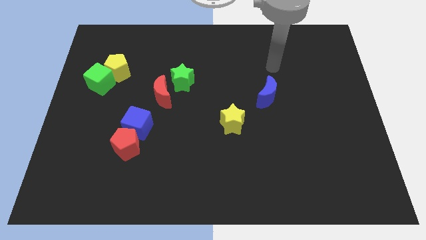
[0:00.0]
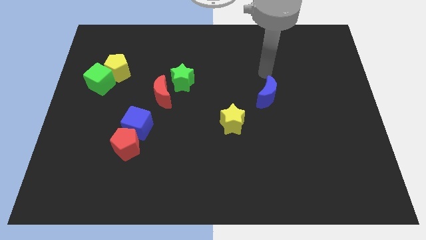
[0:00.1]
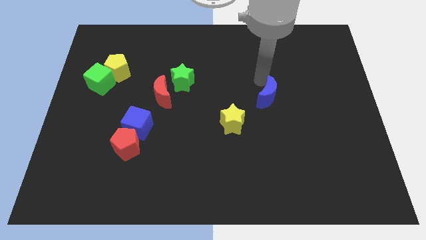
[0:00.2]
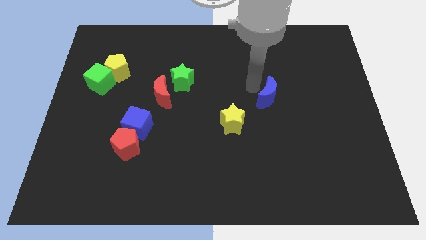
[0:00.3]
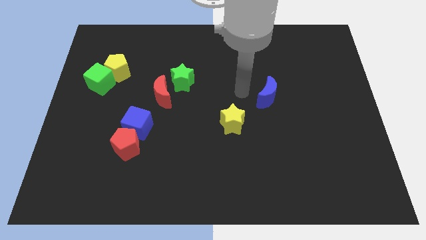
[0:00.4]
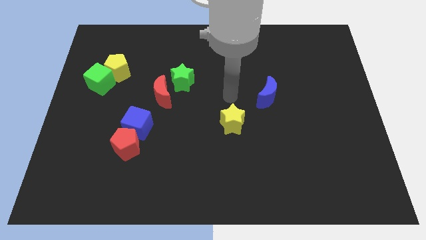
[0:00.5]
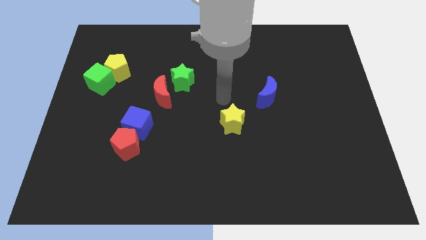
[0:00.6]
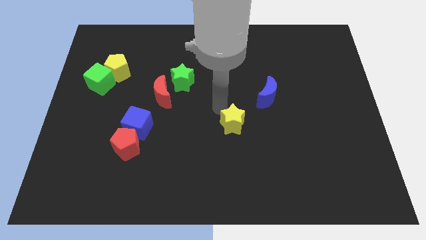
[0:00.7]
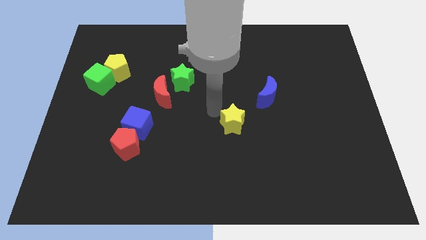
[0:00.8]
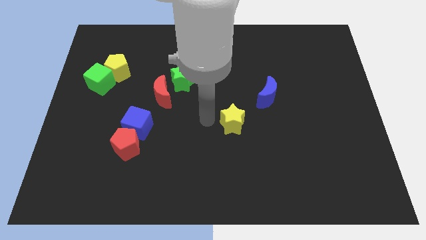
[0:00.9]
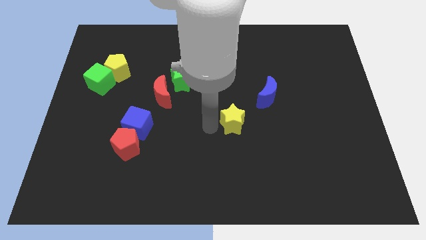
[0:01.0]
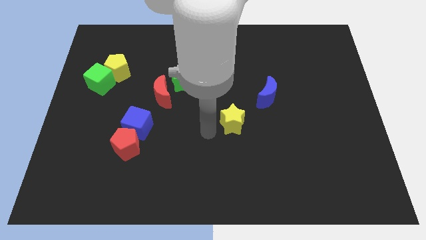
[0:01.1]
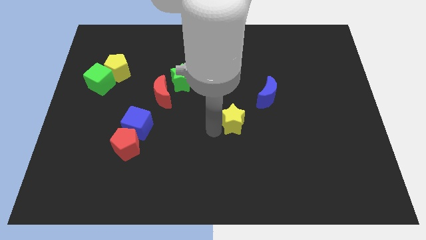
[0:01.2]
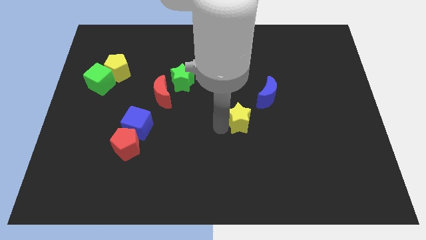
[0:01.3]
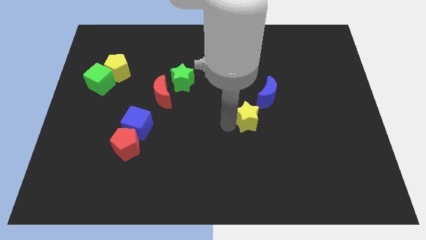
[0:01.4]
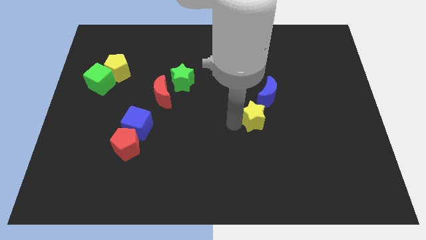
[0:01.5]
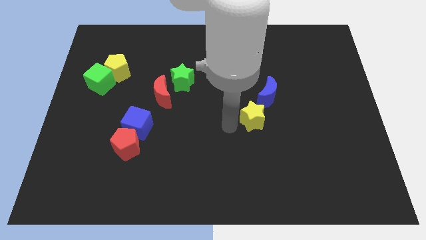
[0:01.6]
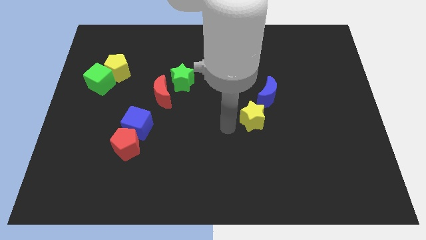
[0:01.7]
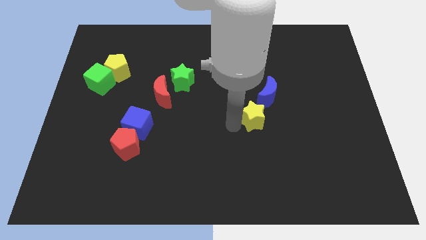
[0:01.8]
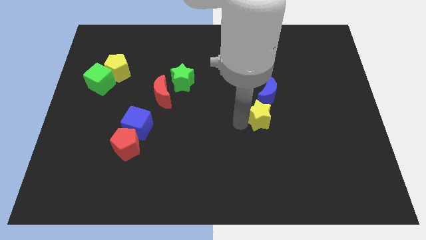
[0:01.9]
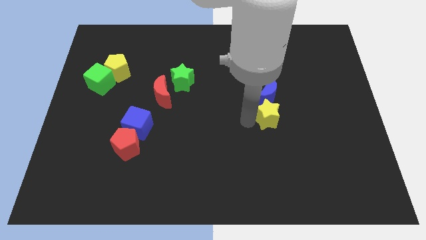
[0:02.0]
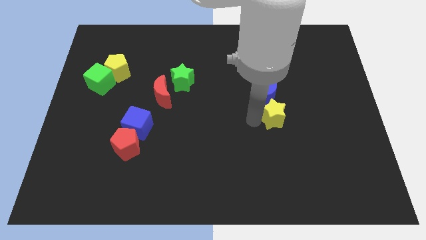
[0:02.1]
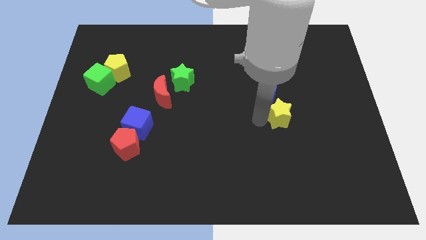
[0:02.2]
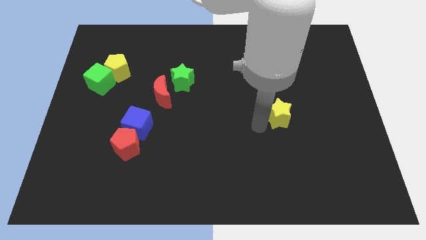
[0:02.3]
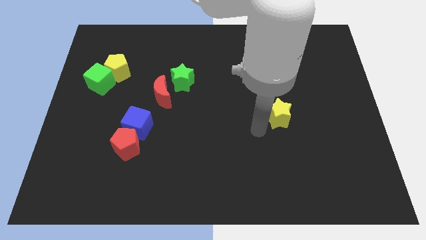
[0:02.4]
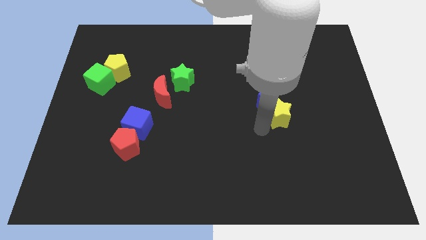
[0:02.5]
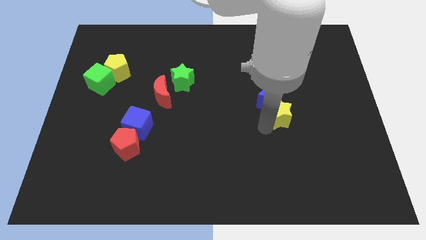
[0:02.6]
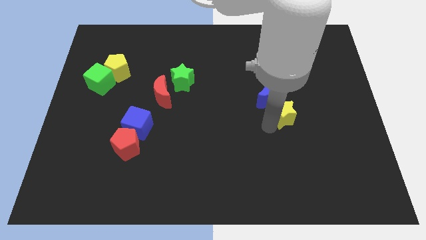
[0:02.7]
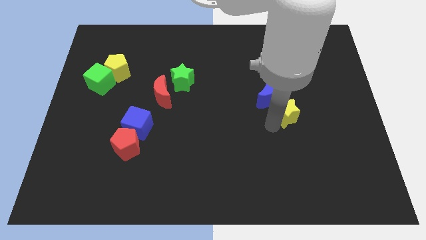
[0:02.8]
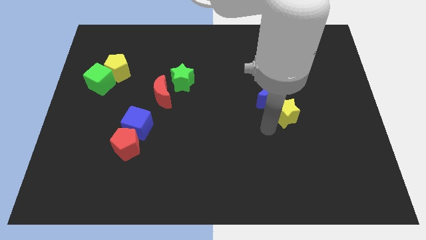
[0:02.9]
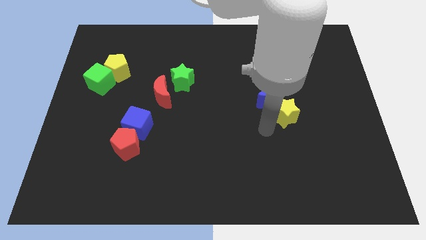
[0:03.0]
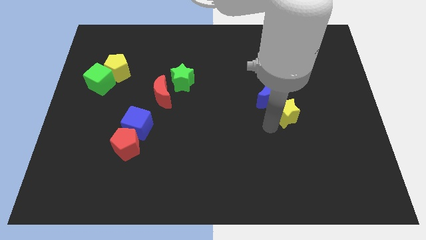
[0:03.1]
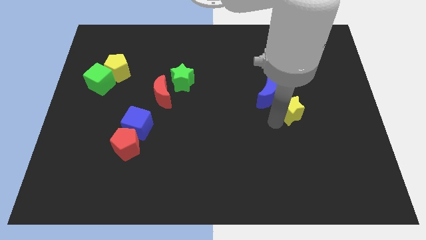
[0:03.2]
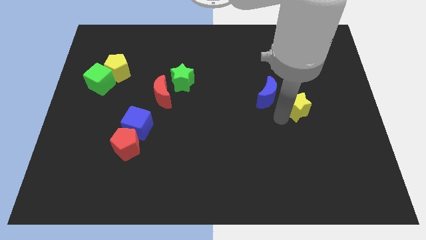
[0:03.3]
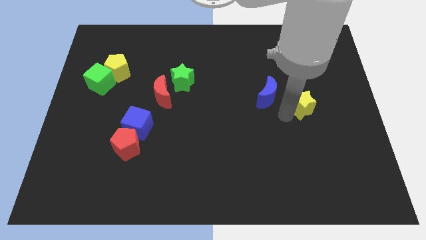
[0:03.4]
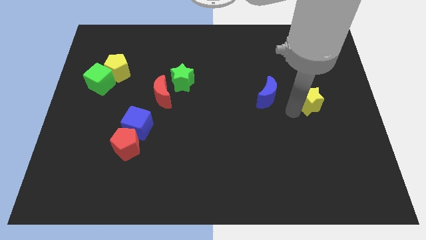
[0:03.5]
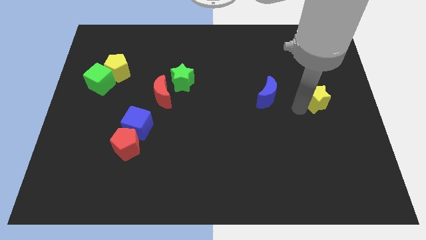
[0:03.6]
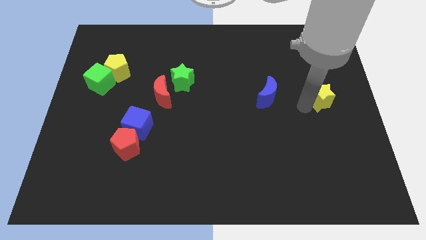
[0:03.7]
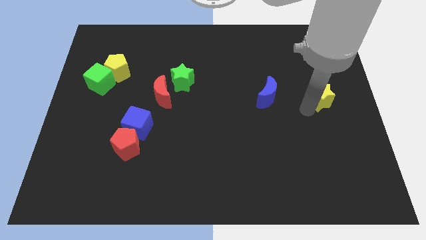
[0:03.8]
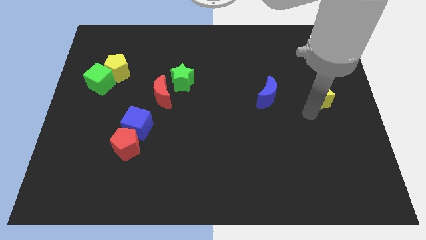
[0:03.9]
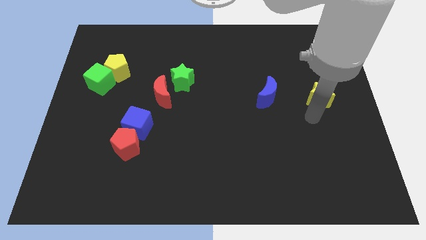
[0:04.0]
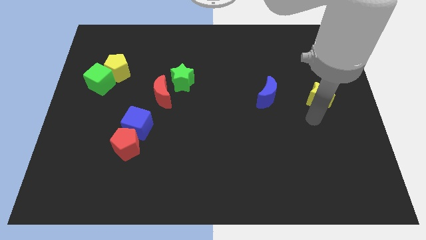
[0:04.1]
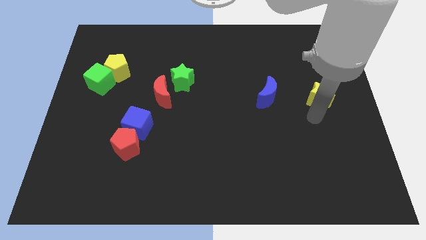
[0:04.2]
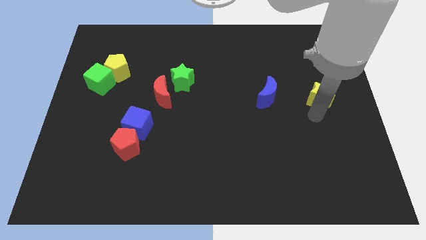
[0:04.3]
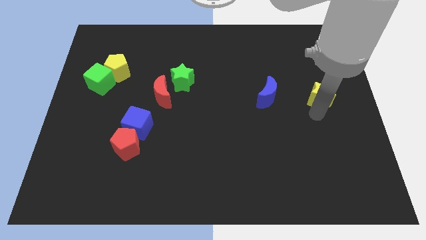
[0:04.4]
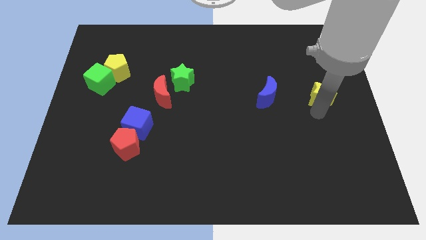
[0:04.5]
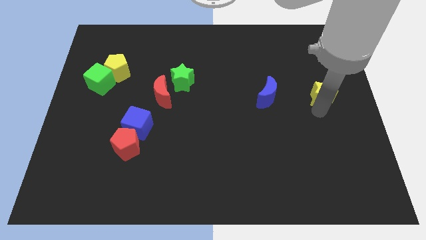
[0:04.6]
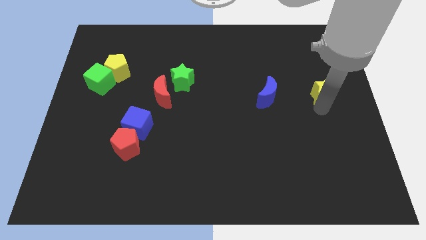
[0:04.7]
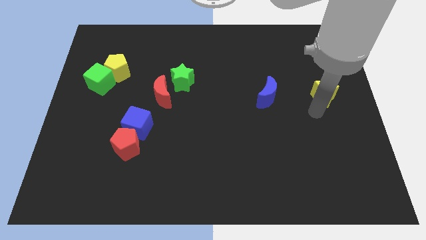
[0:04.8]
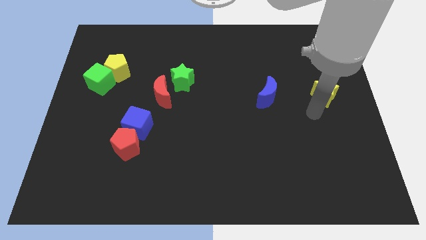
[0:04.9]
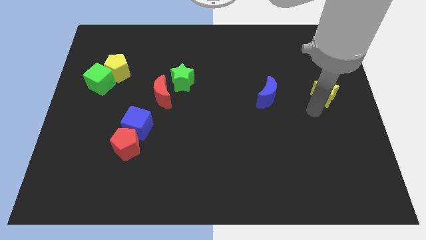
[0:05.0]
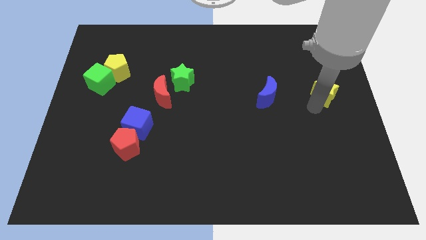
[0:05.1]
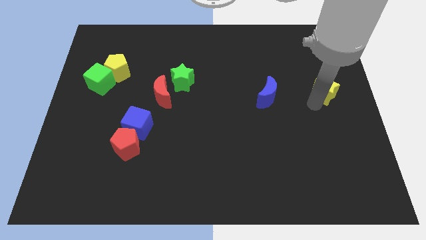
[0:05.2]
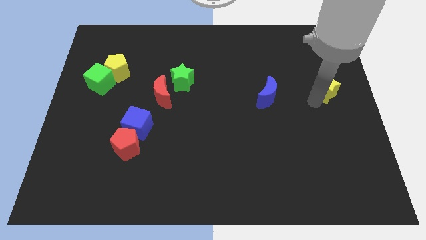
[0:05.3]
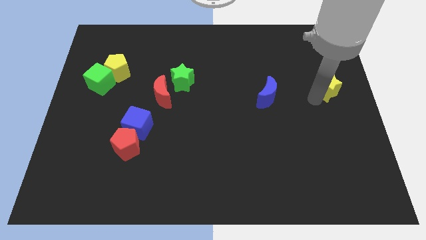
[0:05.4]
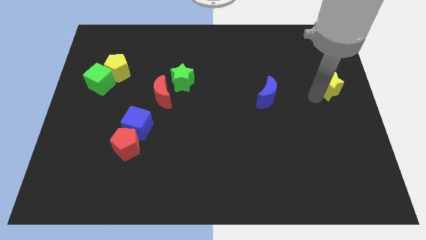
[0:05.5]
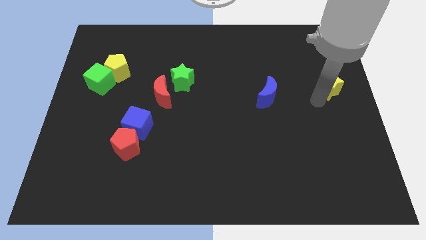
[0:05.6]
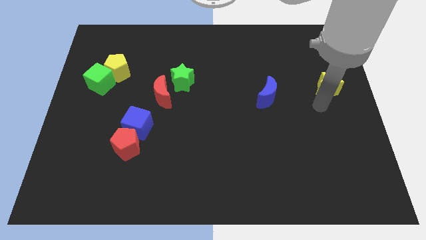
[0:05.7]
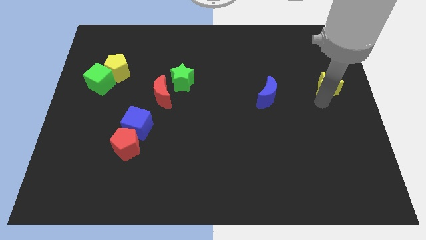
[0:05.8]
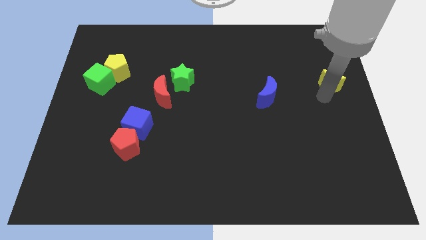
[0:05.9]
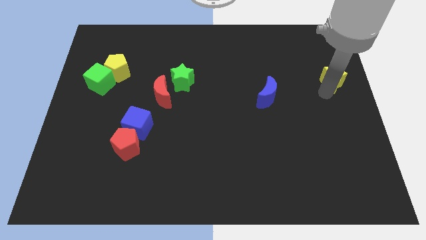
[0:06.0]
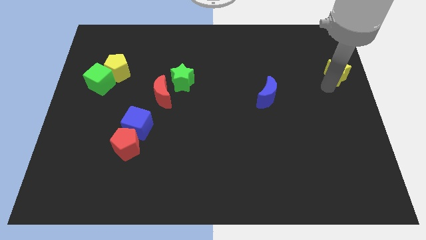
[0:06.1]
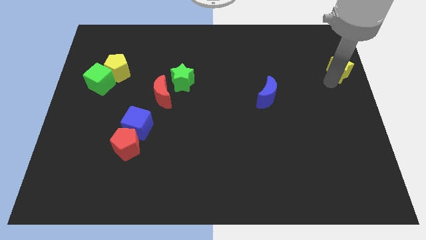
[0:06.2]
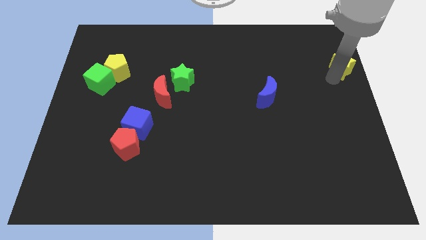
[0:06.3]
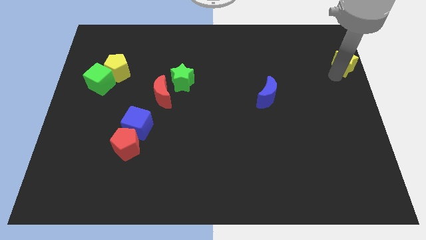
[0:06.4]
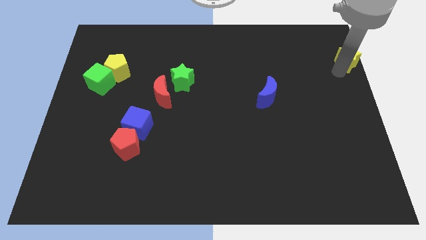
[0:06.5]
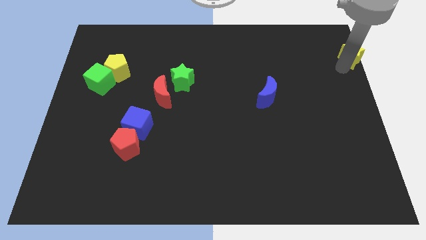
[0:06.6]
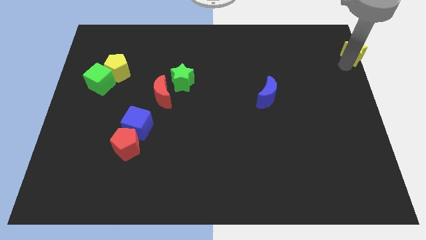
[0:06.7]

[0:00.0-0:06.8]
slide the yellow star to the top right
